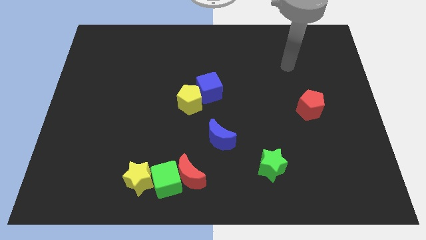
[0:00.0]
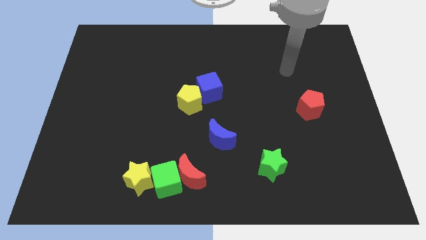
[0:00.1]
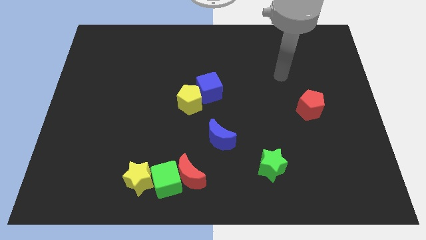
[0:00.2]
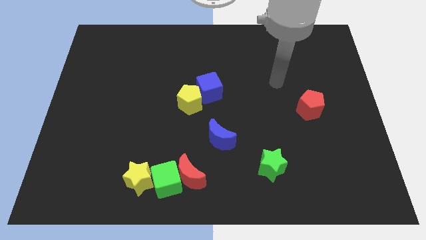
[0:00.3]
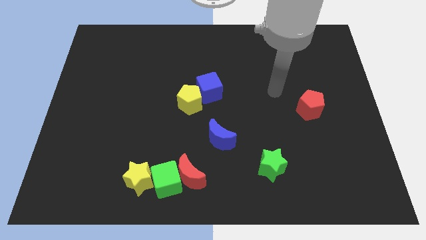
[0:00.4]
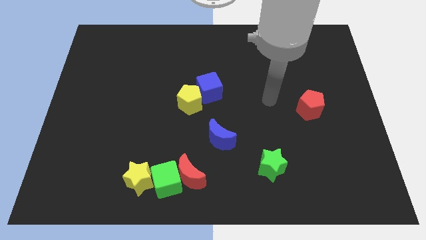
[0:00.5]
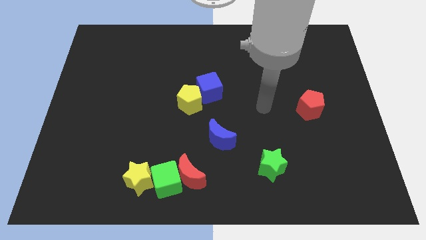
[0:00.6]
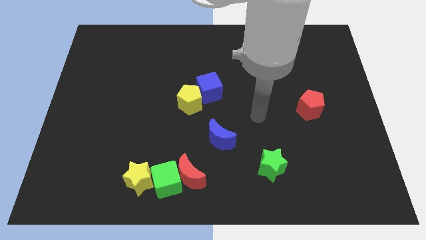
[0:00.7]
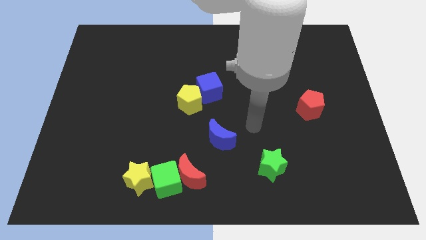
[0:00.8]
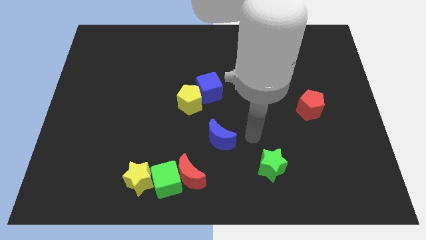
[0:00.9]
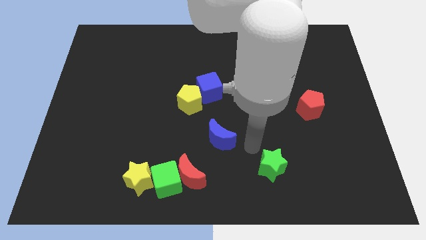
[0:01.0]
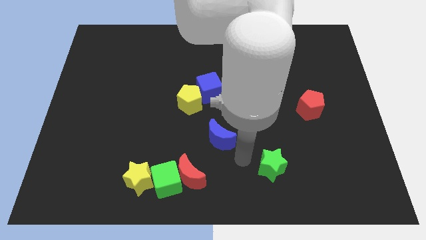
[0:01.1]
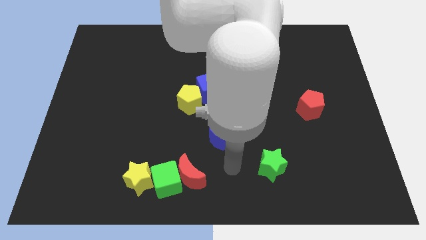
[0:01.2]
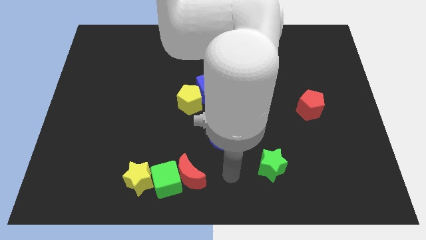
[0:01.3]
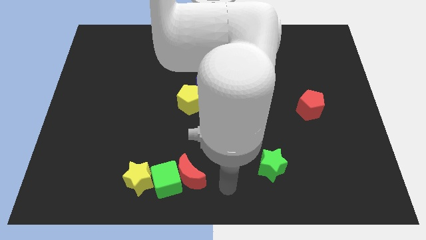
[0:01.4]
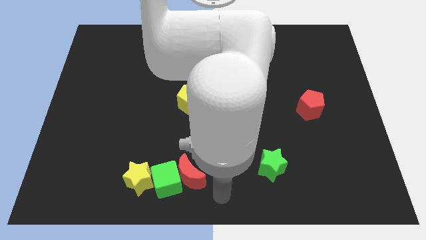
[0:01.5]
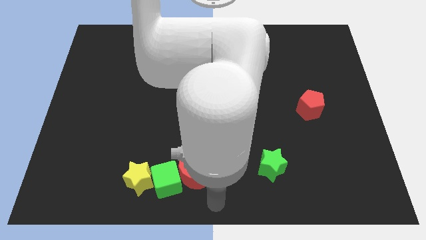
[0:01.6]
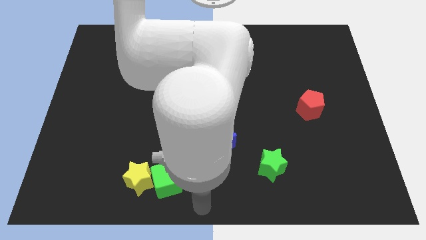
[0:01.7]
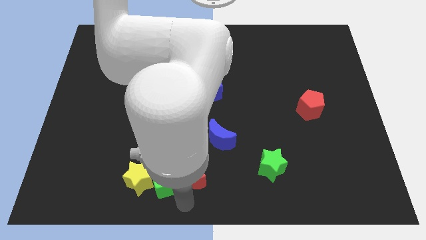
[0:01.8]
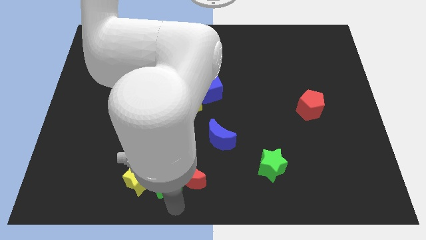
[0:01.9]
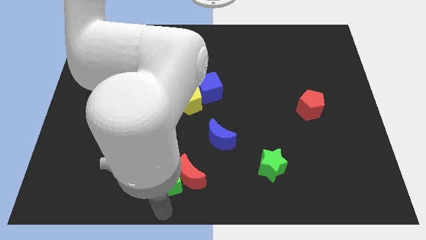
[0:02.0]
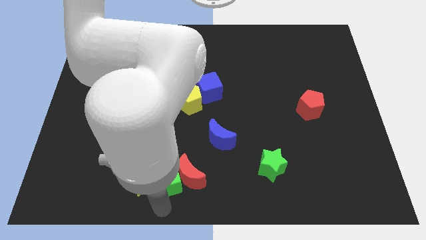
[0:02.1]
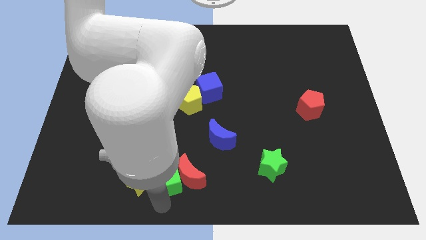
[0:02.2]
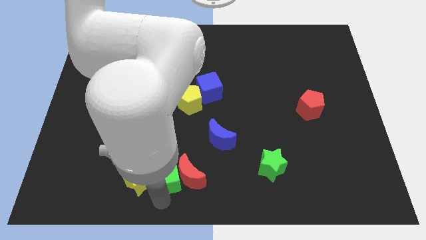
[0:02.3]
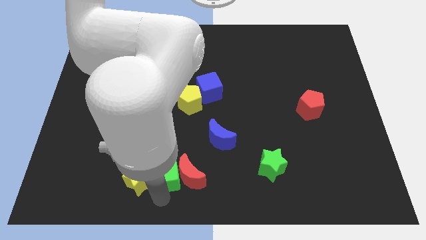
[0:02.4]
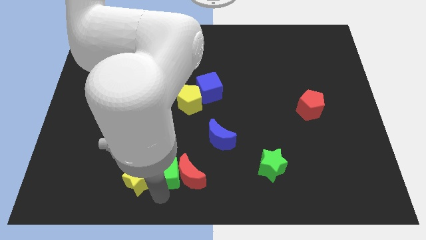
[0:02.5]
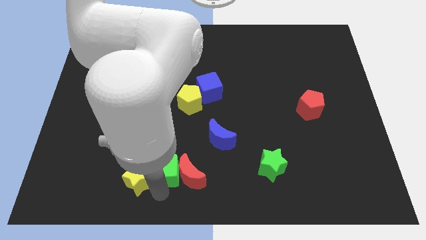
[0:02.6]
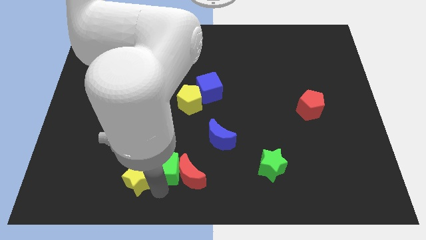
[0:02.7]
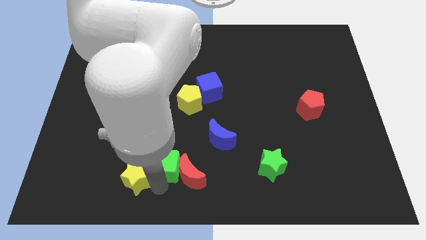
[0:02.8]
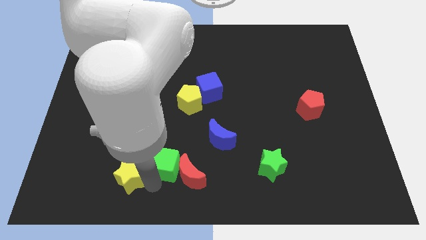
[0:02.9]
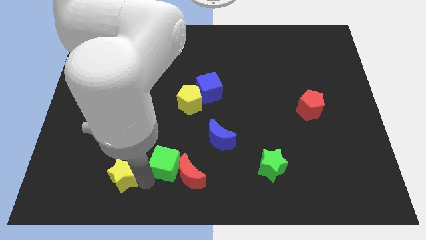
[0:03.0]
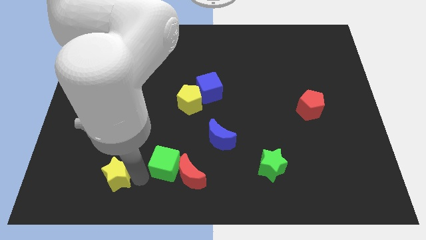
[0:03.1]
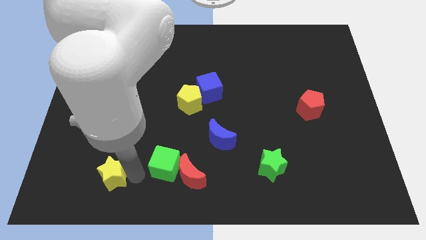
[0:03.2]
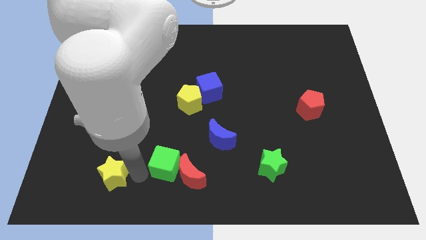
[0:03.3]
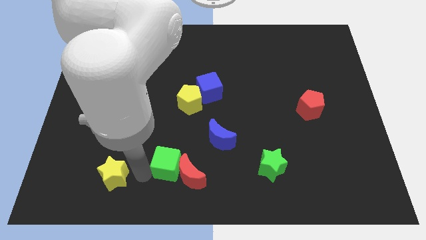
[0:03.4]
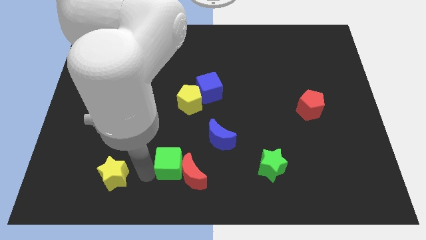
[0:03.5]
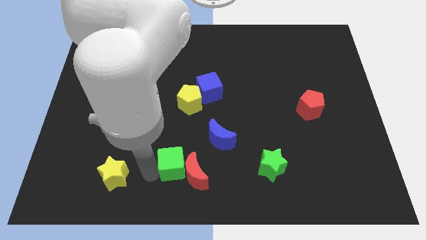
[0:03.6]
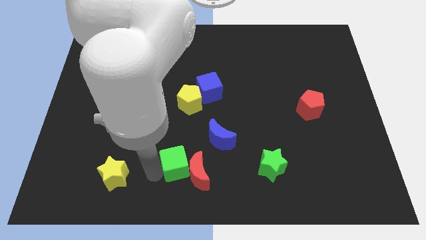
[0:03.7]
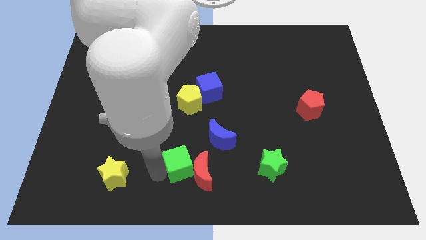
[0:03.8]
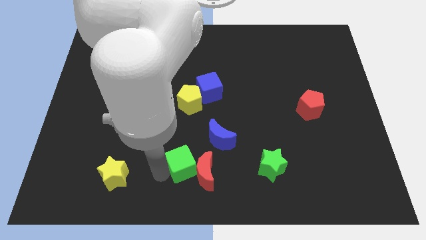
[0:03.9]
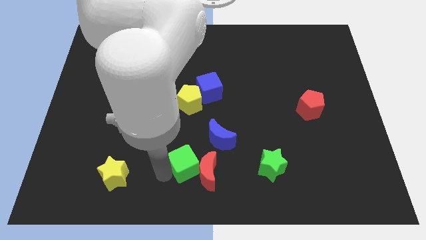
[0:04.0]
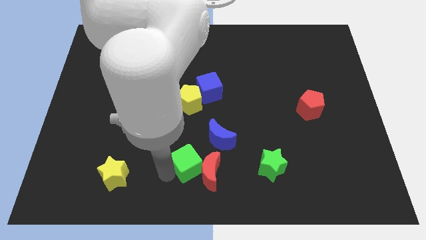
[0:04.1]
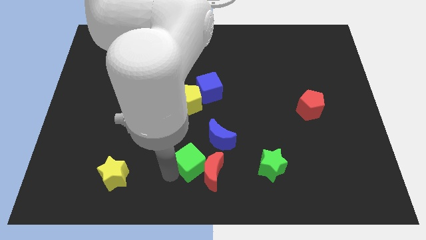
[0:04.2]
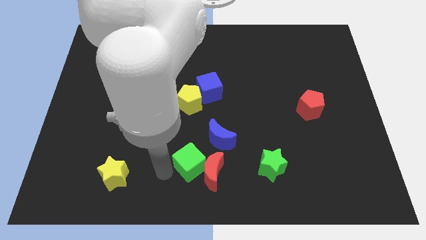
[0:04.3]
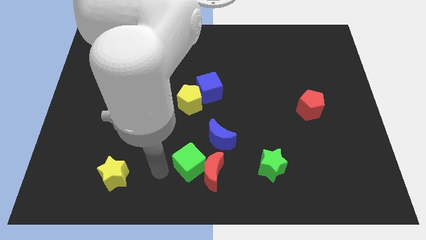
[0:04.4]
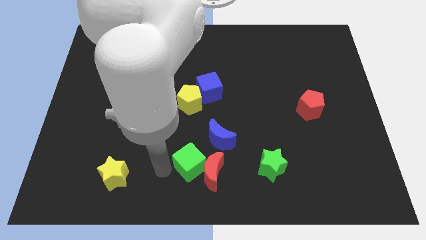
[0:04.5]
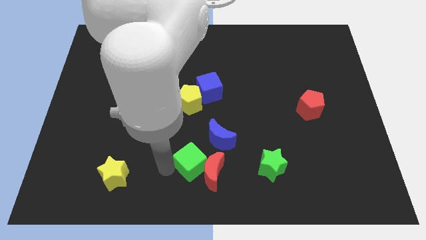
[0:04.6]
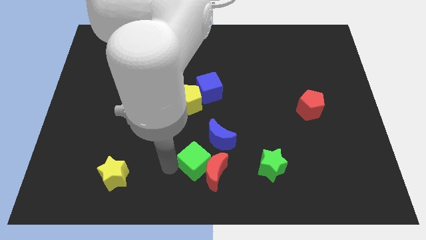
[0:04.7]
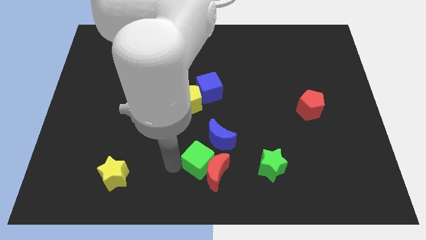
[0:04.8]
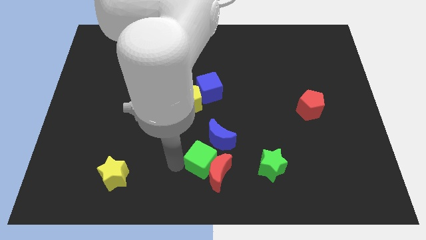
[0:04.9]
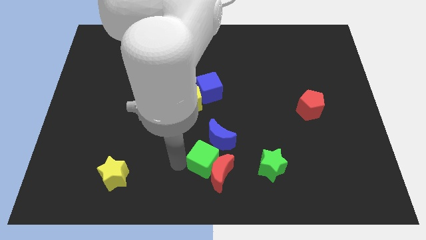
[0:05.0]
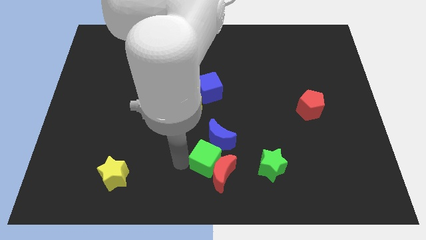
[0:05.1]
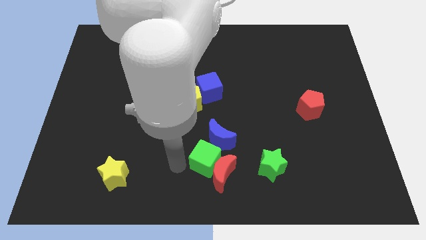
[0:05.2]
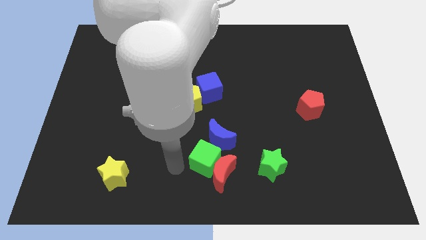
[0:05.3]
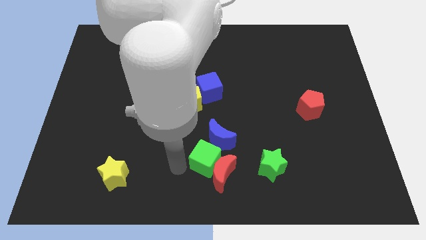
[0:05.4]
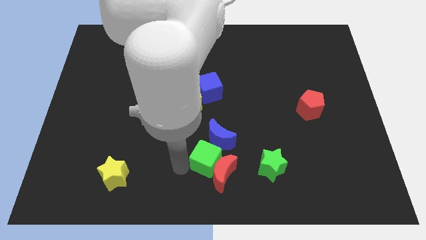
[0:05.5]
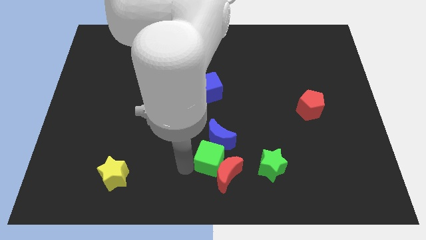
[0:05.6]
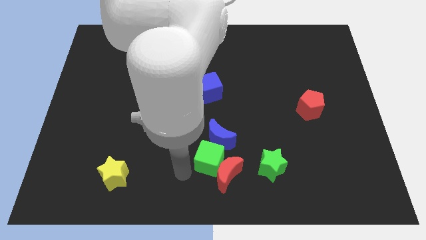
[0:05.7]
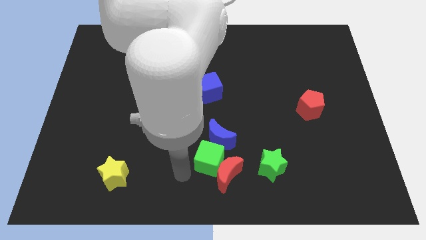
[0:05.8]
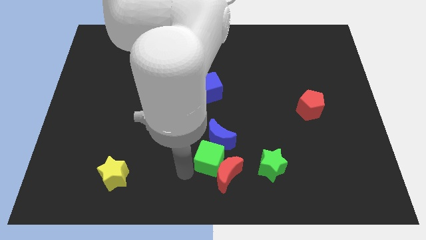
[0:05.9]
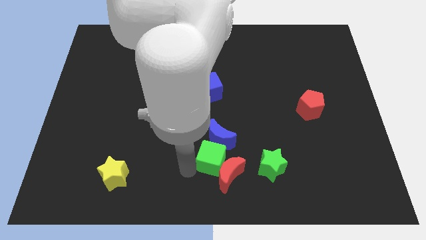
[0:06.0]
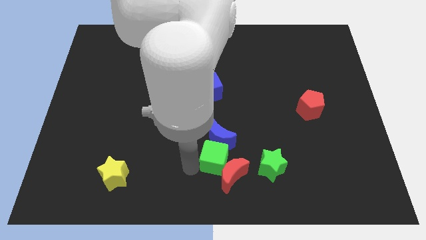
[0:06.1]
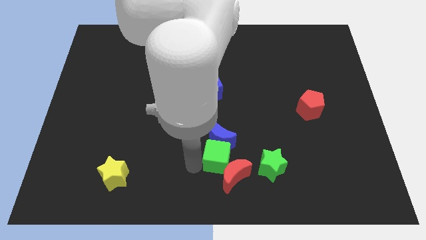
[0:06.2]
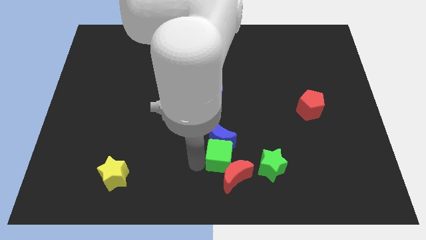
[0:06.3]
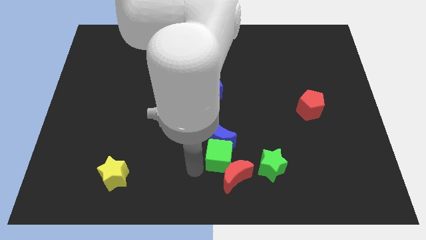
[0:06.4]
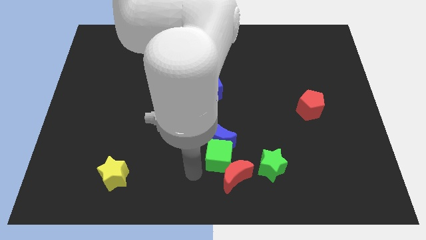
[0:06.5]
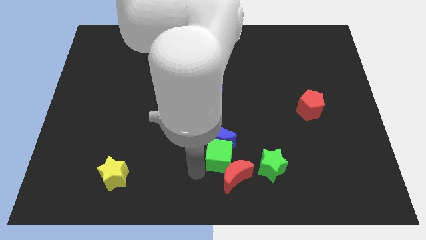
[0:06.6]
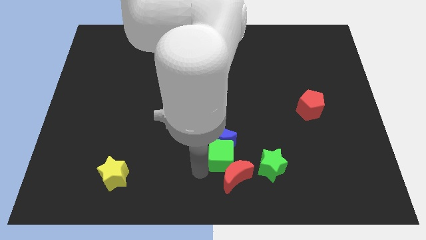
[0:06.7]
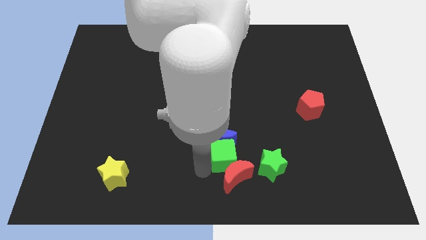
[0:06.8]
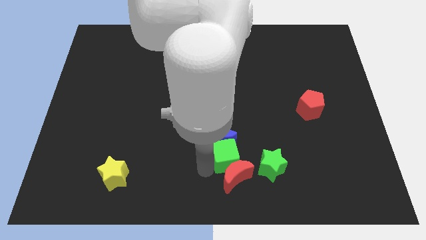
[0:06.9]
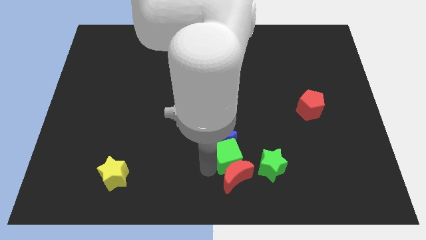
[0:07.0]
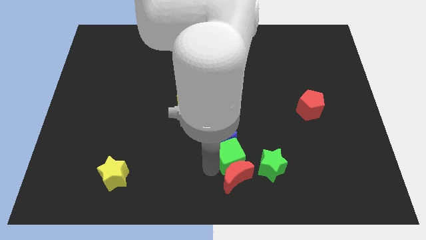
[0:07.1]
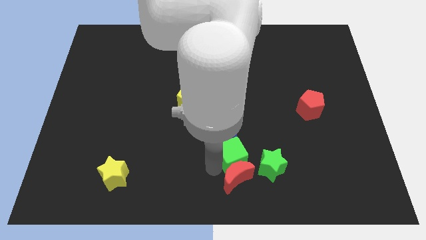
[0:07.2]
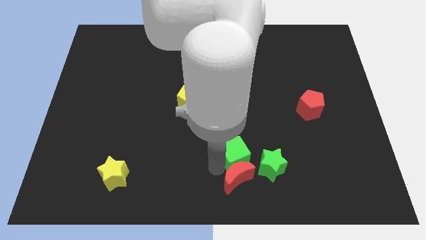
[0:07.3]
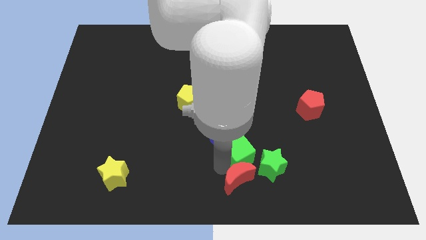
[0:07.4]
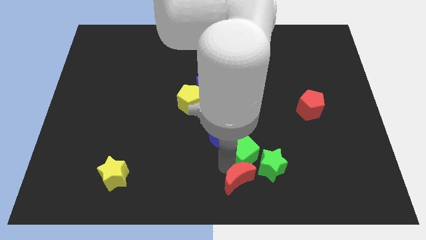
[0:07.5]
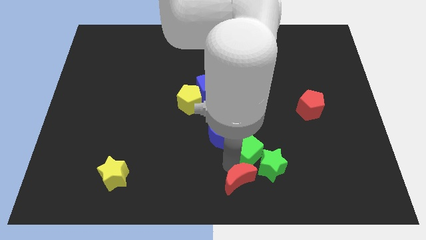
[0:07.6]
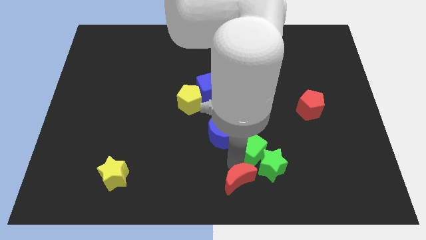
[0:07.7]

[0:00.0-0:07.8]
push the green cube to the top of the green star
